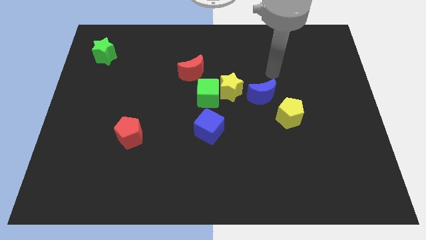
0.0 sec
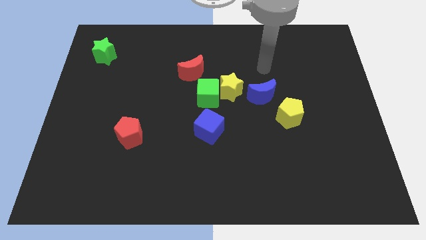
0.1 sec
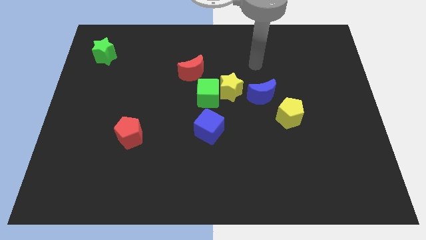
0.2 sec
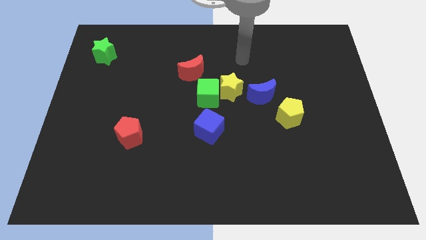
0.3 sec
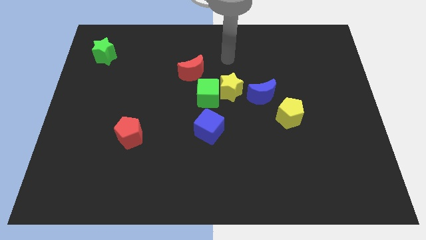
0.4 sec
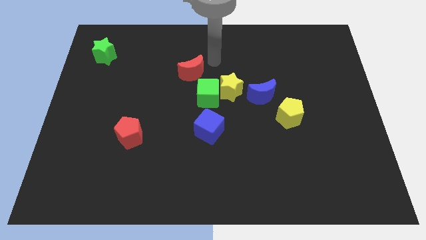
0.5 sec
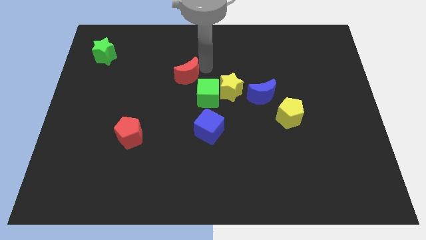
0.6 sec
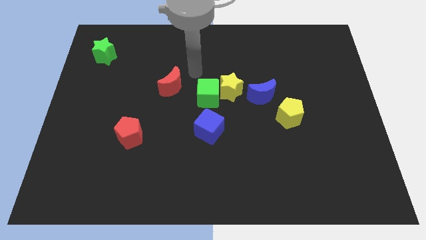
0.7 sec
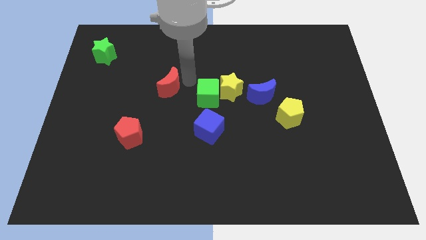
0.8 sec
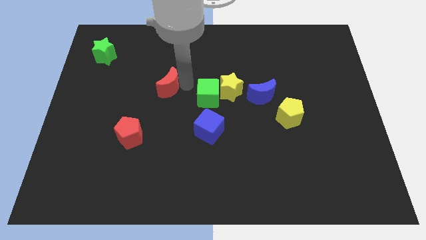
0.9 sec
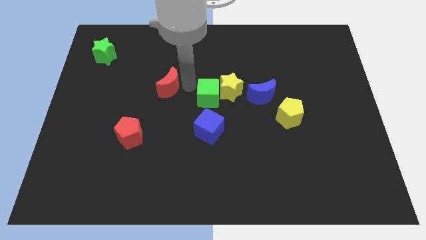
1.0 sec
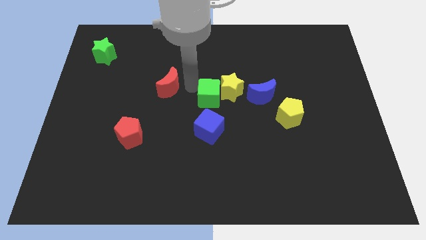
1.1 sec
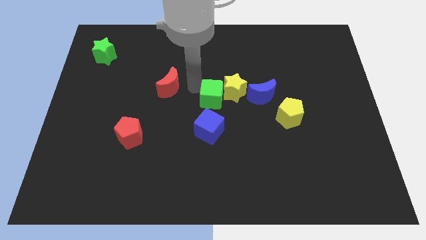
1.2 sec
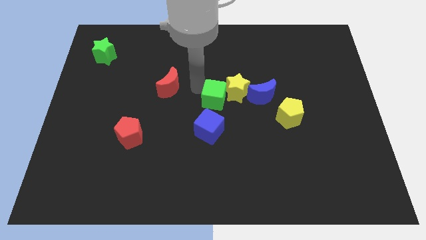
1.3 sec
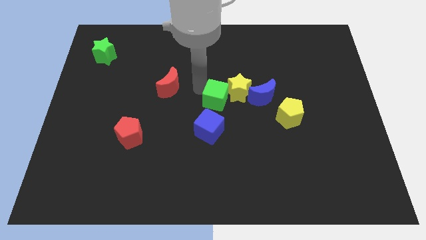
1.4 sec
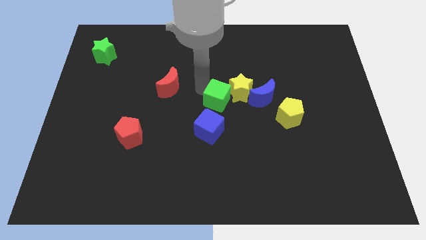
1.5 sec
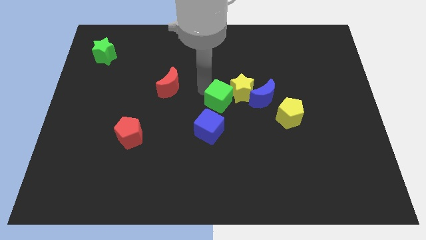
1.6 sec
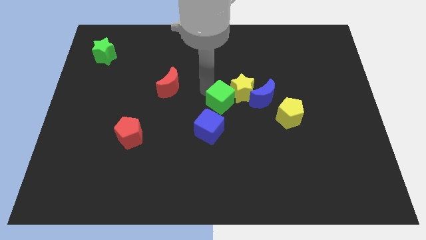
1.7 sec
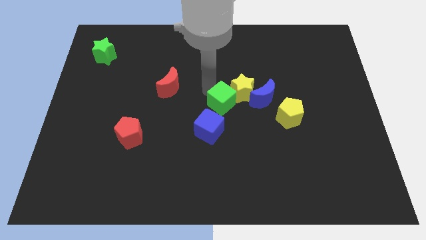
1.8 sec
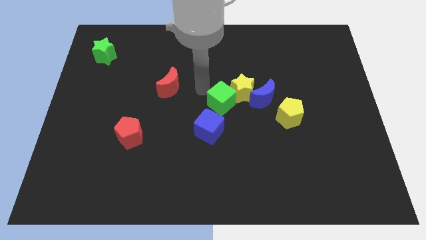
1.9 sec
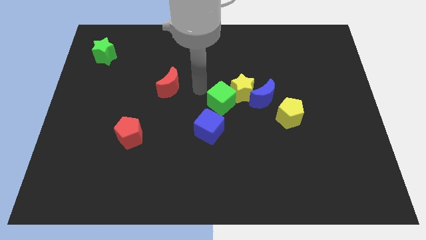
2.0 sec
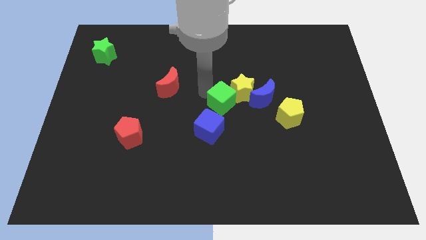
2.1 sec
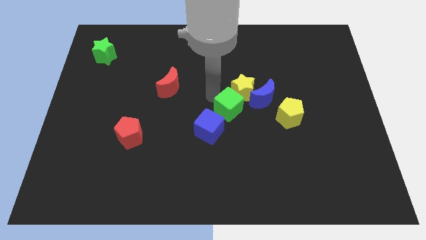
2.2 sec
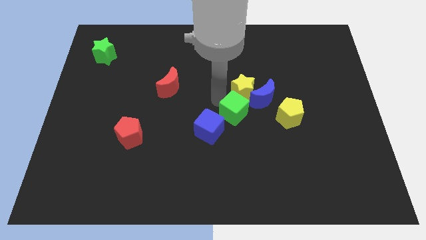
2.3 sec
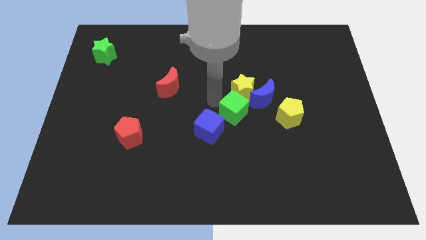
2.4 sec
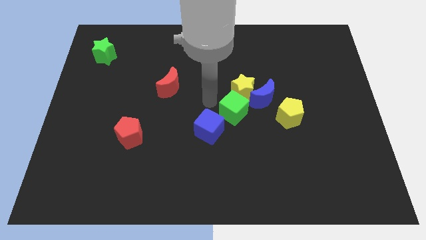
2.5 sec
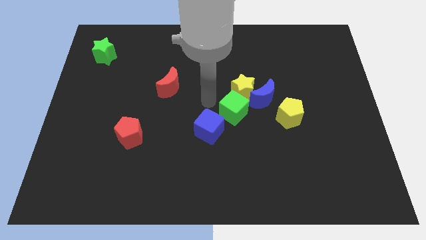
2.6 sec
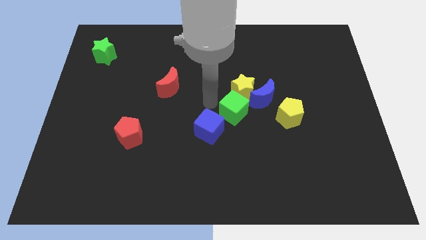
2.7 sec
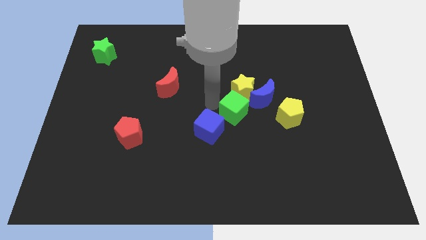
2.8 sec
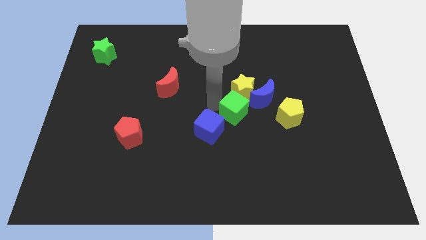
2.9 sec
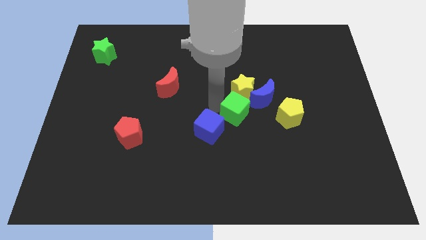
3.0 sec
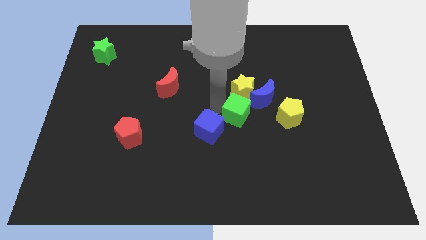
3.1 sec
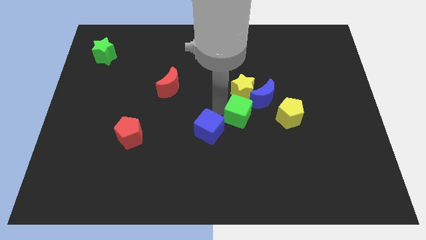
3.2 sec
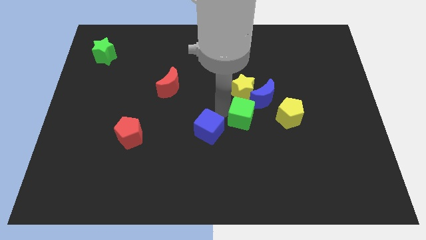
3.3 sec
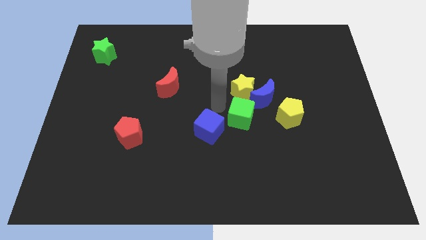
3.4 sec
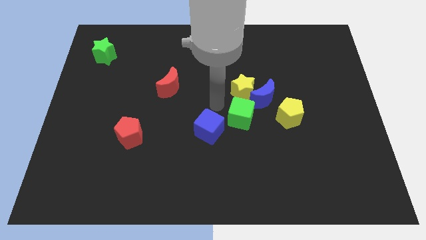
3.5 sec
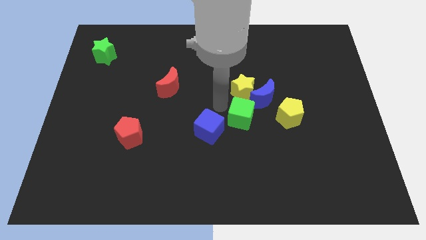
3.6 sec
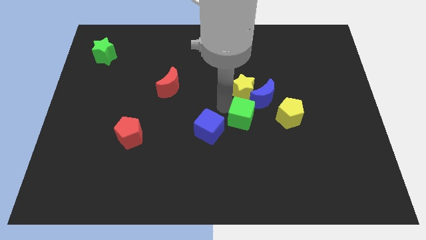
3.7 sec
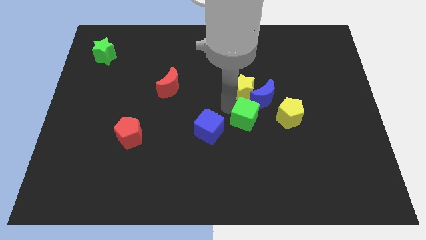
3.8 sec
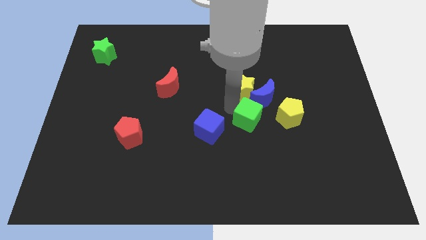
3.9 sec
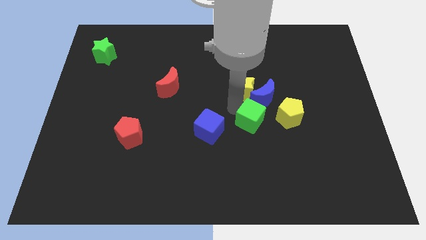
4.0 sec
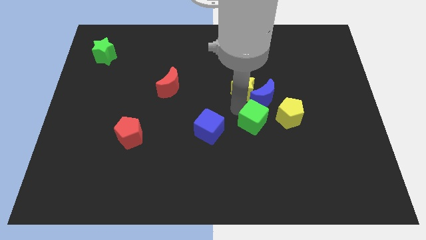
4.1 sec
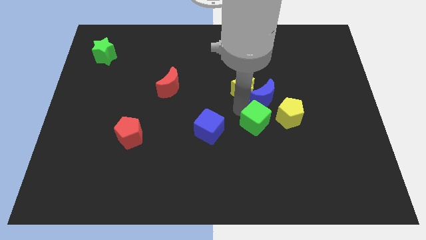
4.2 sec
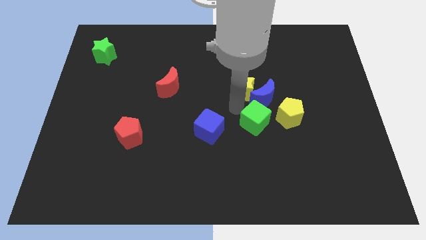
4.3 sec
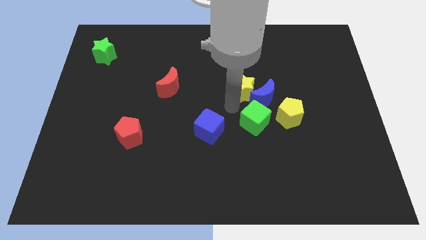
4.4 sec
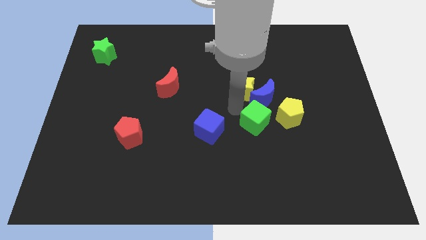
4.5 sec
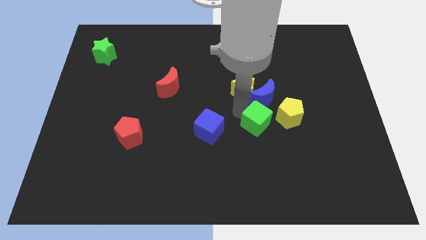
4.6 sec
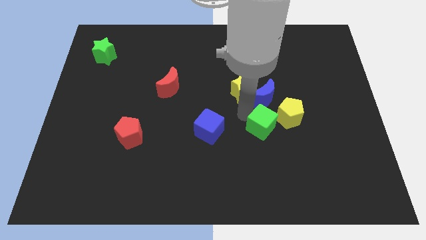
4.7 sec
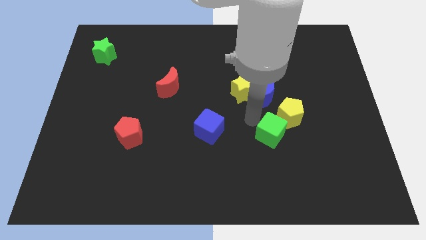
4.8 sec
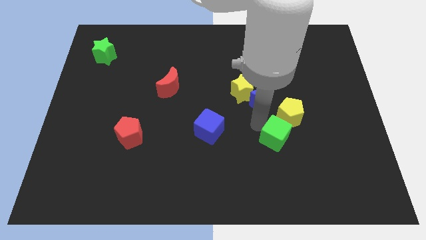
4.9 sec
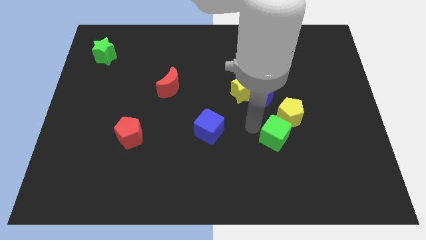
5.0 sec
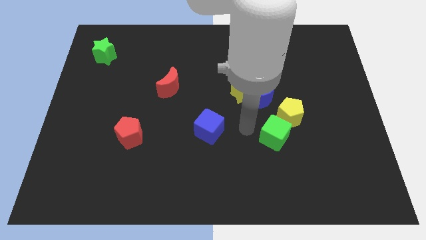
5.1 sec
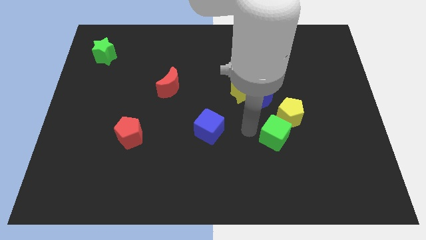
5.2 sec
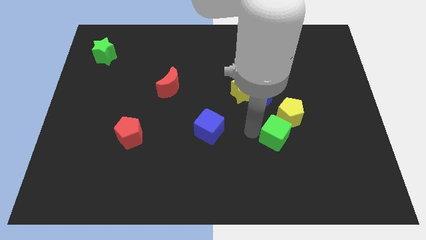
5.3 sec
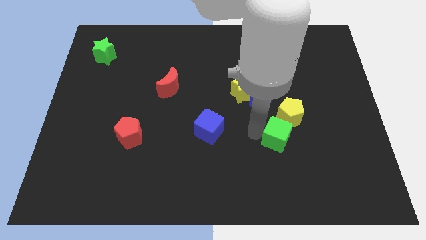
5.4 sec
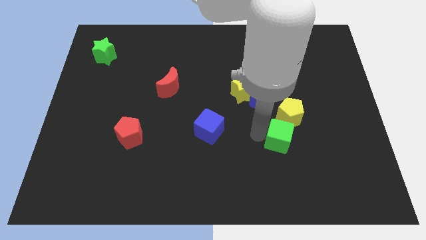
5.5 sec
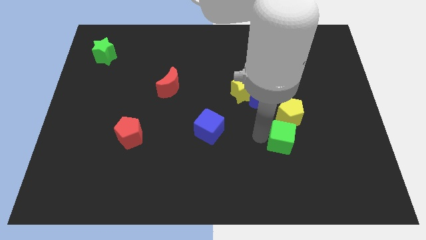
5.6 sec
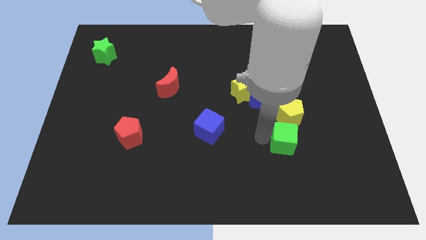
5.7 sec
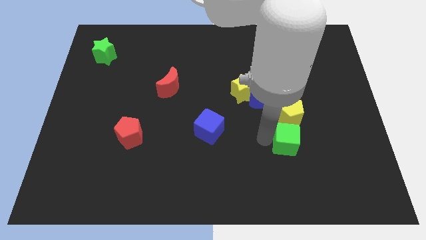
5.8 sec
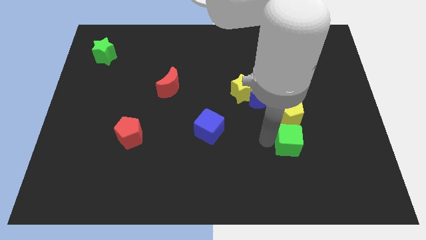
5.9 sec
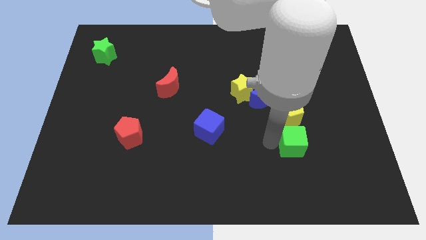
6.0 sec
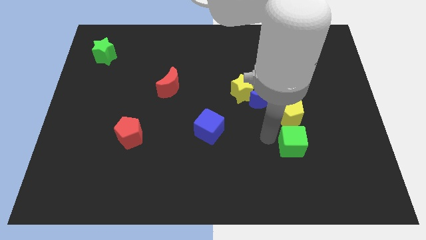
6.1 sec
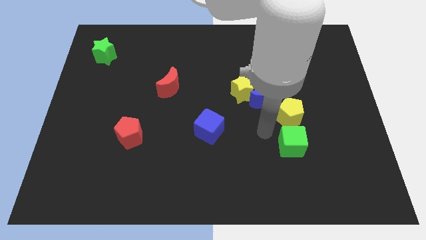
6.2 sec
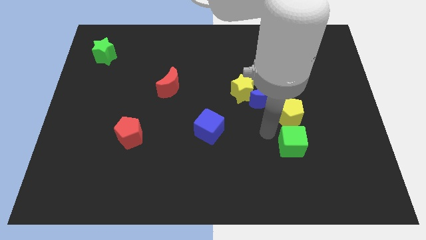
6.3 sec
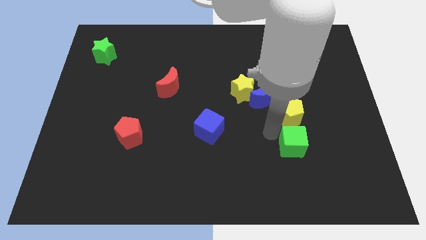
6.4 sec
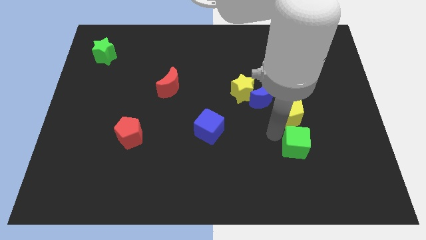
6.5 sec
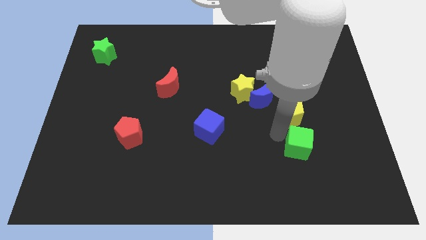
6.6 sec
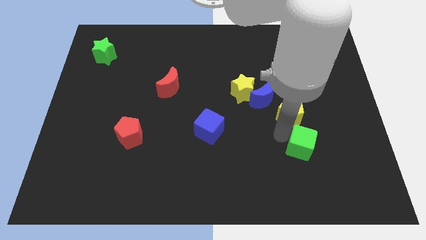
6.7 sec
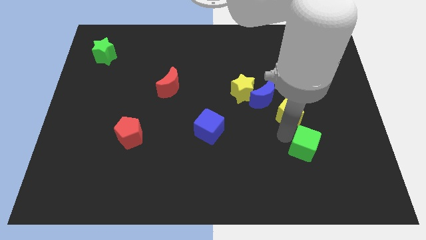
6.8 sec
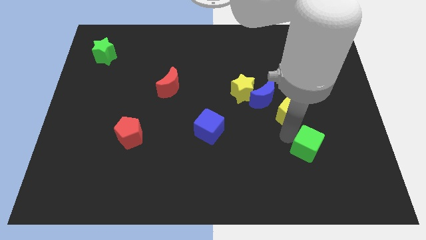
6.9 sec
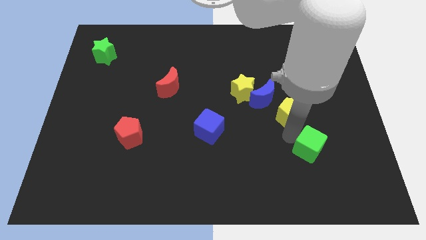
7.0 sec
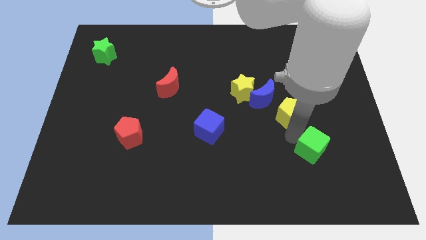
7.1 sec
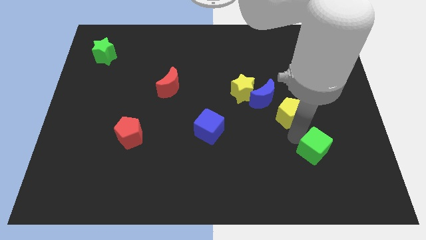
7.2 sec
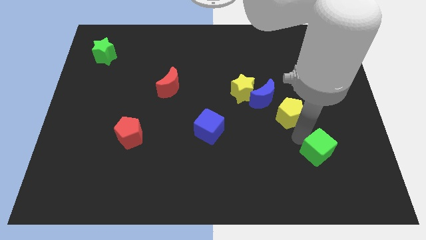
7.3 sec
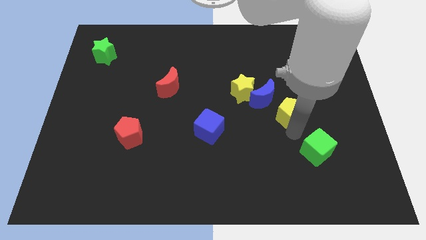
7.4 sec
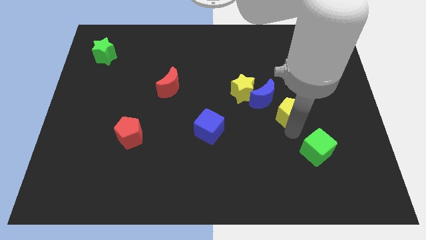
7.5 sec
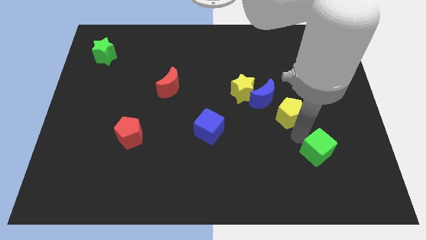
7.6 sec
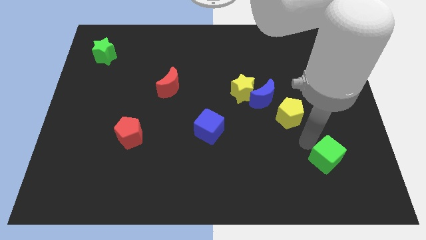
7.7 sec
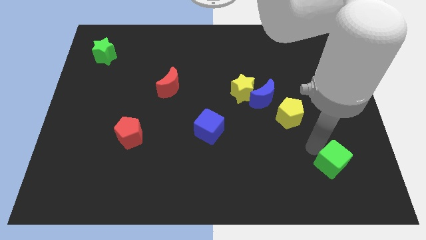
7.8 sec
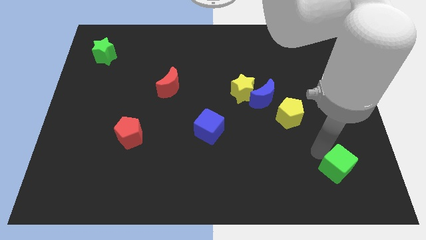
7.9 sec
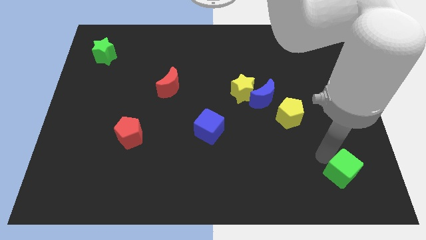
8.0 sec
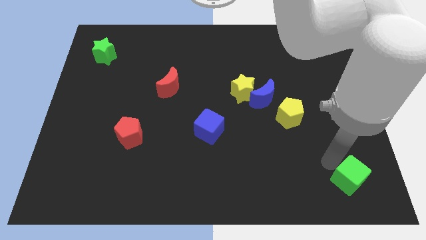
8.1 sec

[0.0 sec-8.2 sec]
move the green cube to the bottom right
